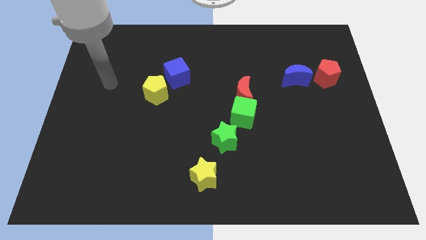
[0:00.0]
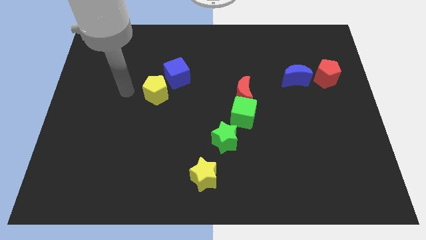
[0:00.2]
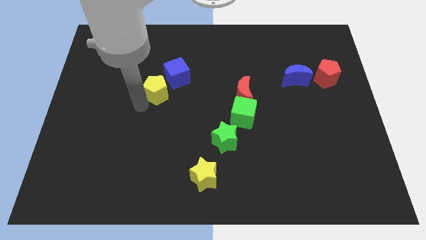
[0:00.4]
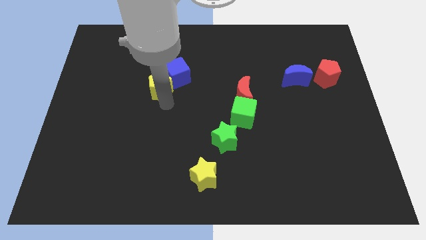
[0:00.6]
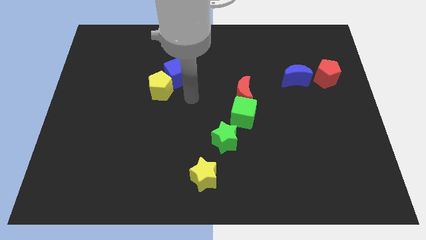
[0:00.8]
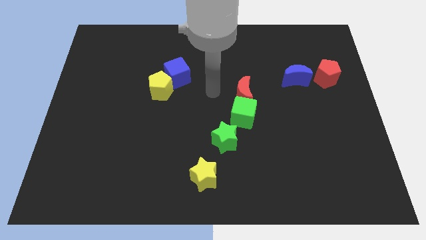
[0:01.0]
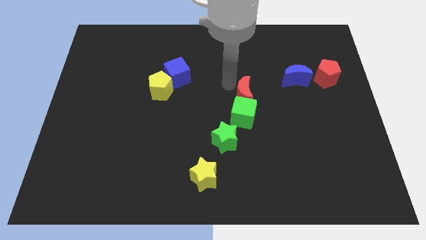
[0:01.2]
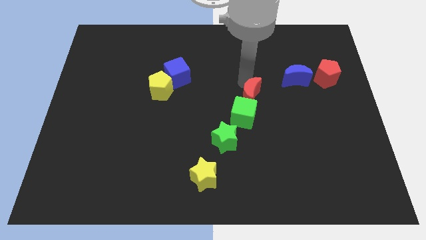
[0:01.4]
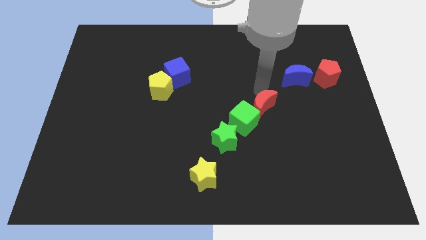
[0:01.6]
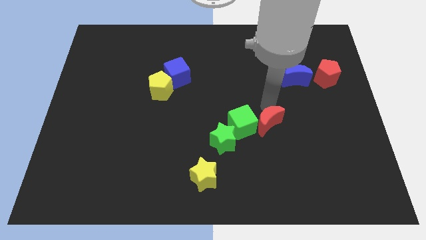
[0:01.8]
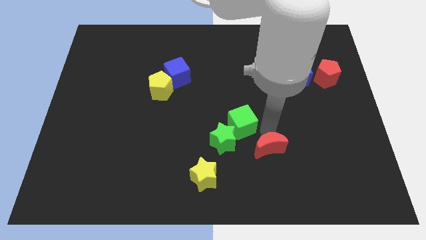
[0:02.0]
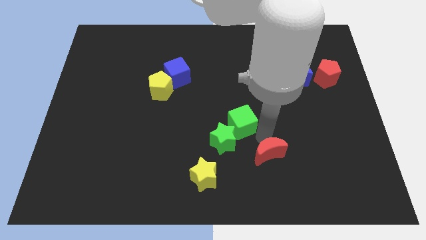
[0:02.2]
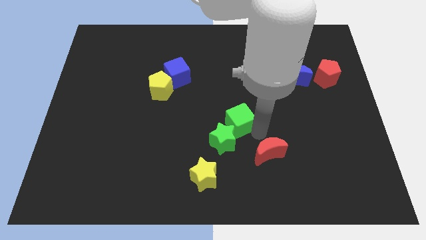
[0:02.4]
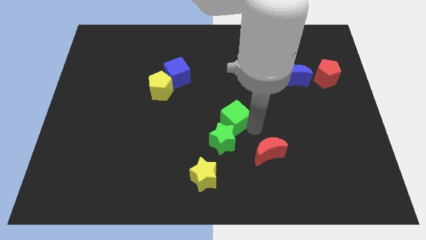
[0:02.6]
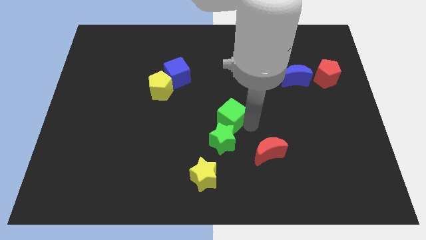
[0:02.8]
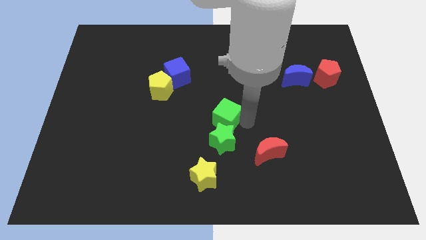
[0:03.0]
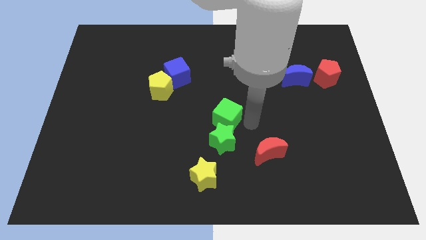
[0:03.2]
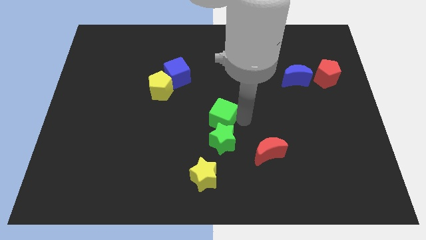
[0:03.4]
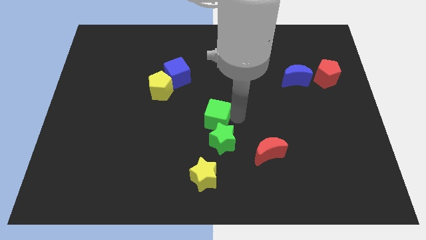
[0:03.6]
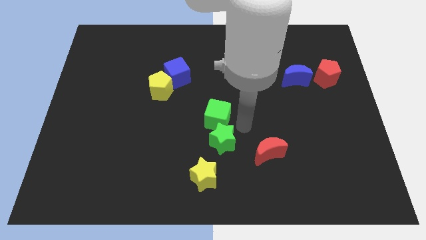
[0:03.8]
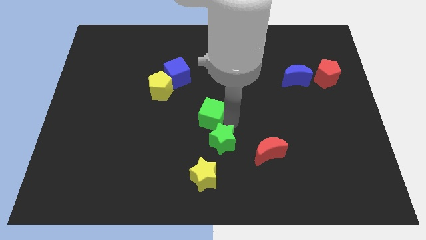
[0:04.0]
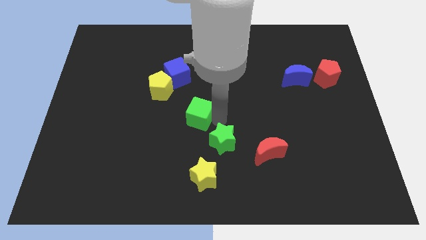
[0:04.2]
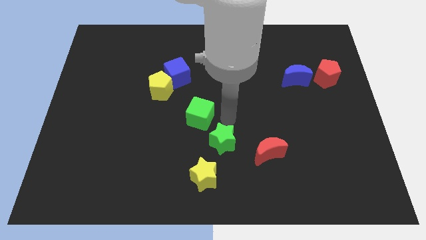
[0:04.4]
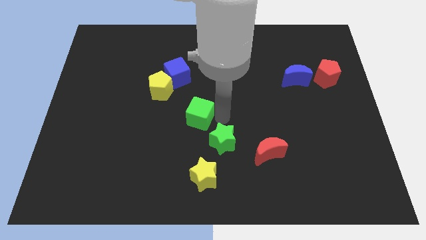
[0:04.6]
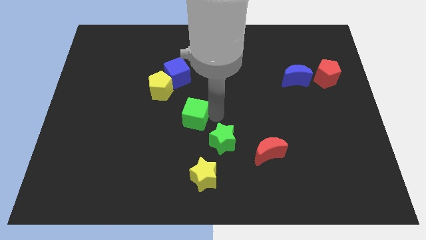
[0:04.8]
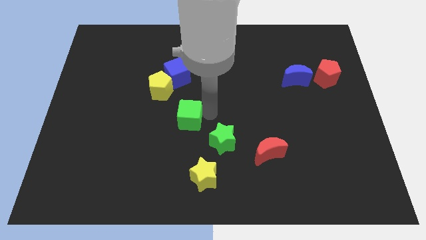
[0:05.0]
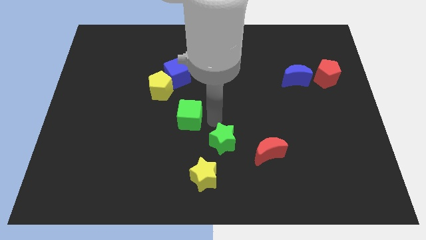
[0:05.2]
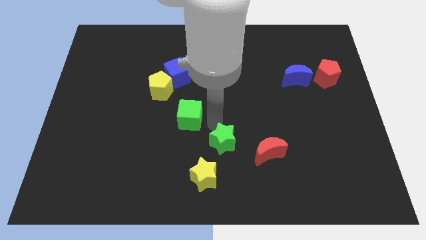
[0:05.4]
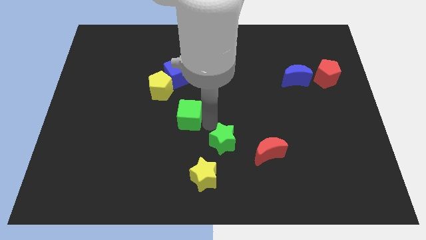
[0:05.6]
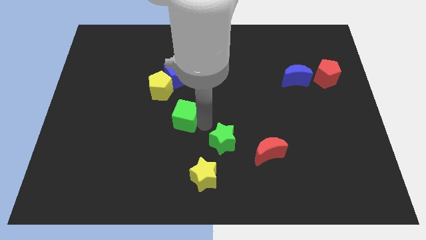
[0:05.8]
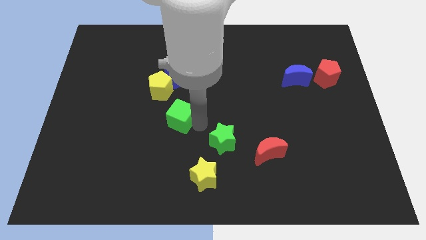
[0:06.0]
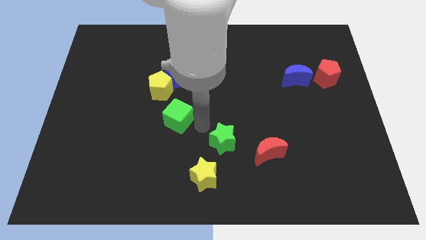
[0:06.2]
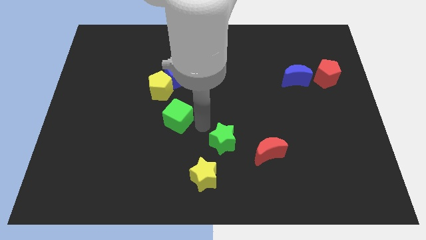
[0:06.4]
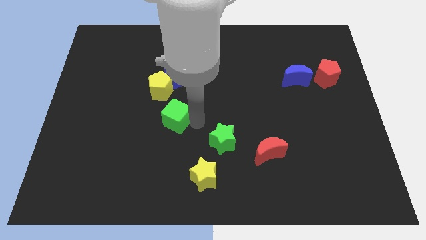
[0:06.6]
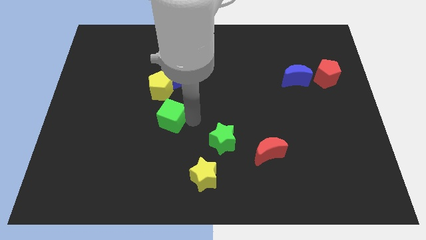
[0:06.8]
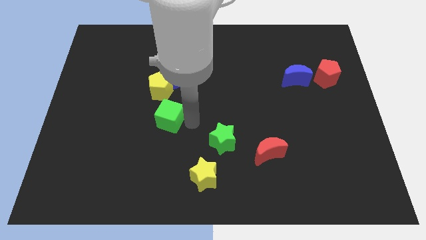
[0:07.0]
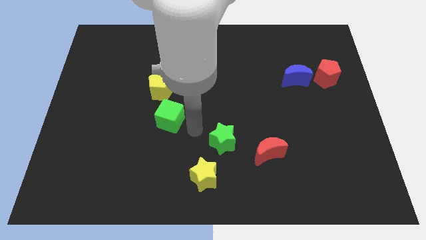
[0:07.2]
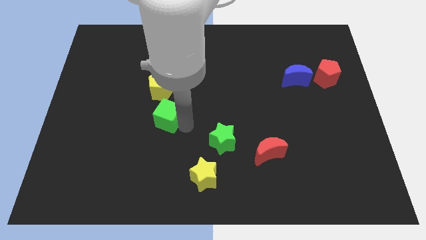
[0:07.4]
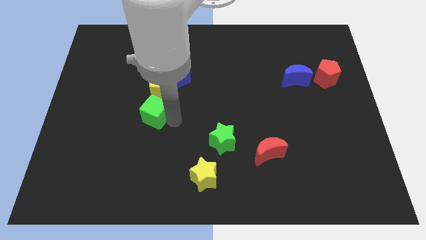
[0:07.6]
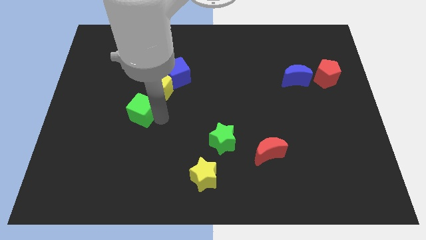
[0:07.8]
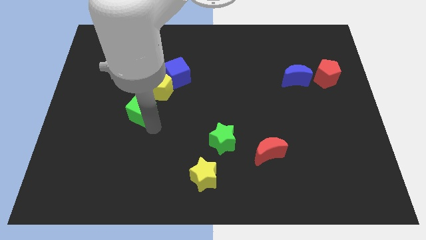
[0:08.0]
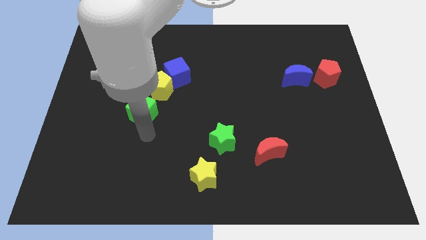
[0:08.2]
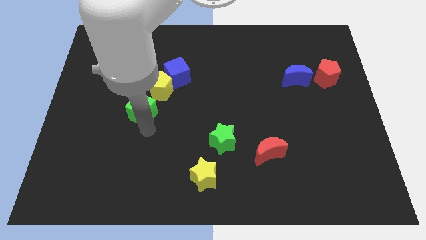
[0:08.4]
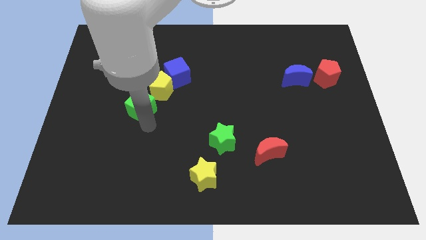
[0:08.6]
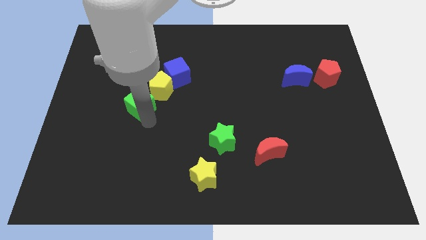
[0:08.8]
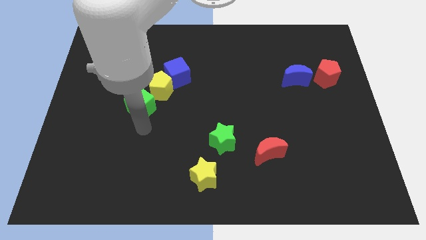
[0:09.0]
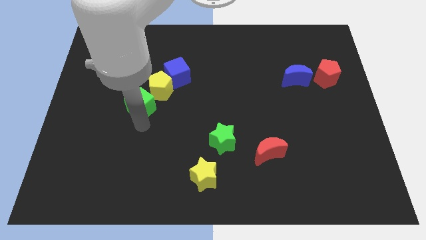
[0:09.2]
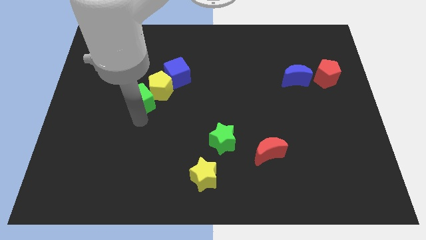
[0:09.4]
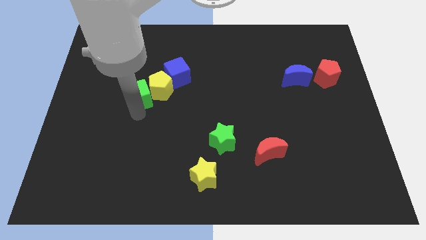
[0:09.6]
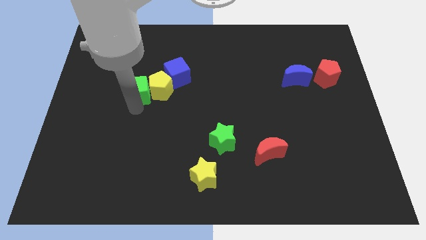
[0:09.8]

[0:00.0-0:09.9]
move the green cube to the top left of the yellow pentagon

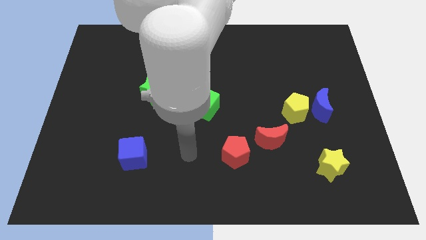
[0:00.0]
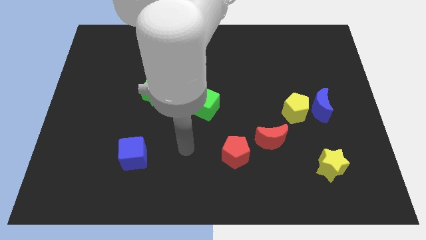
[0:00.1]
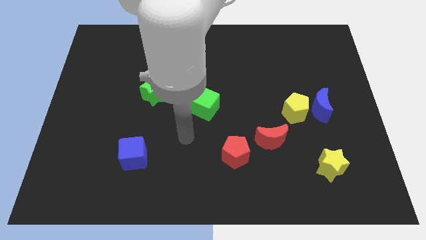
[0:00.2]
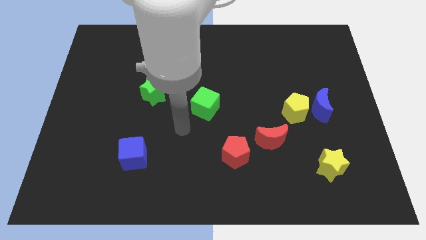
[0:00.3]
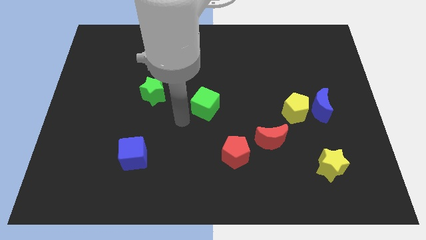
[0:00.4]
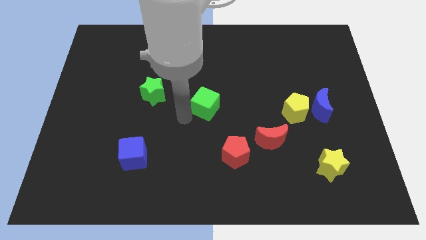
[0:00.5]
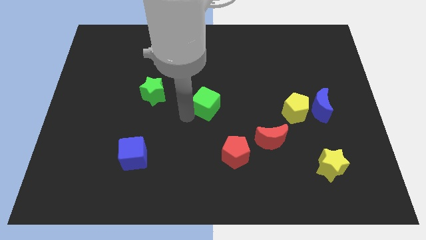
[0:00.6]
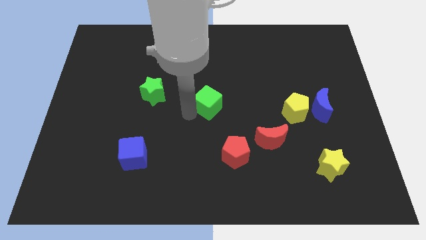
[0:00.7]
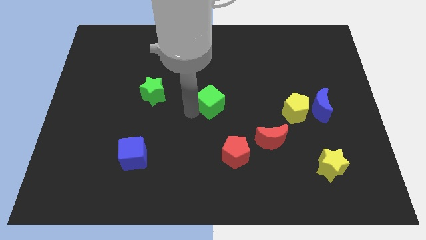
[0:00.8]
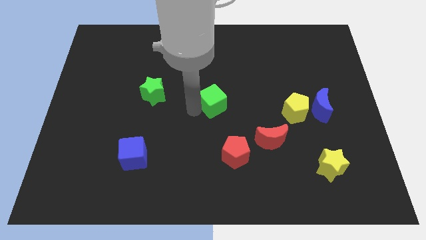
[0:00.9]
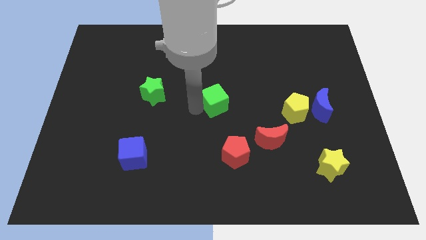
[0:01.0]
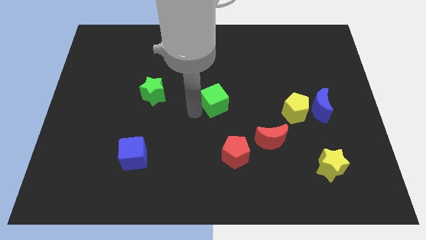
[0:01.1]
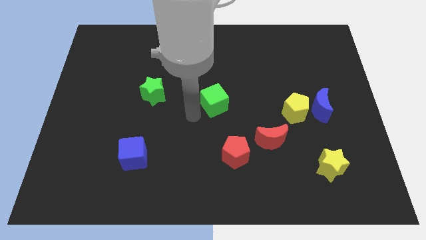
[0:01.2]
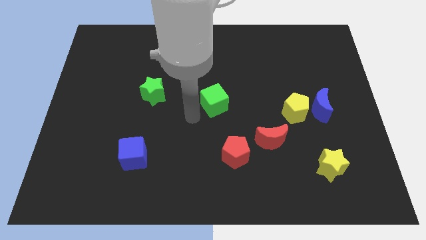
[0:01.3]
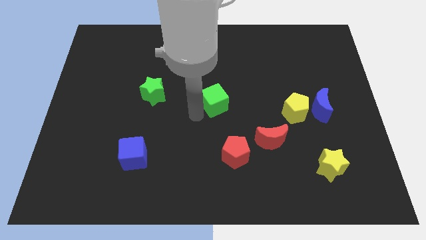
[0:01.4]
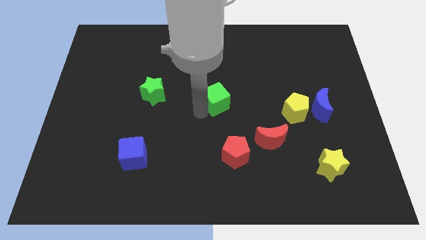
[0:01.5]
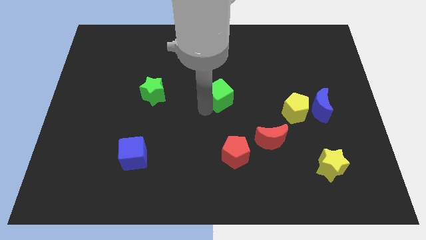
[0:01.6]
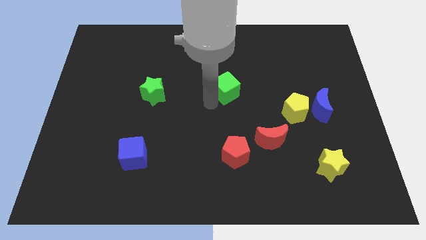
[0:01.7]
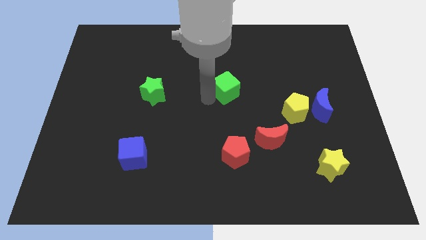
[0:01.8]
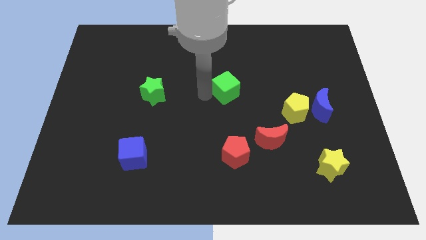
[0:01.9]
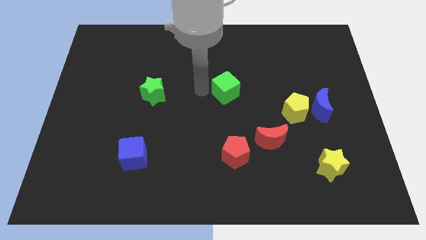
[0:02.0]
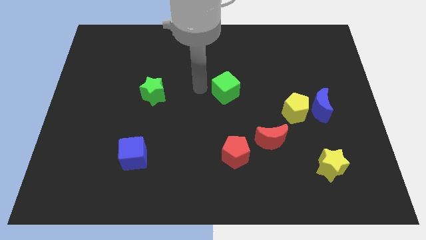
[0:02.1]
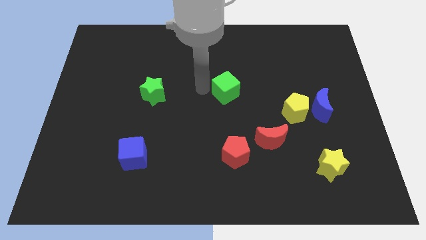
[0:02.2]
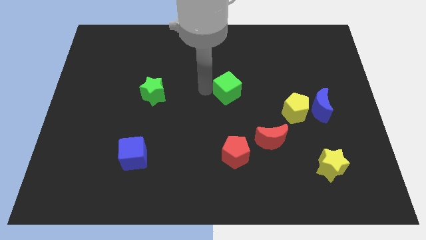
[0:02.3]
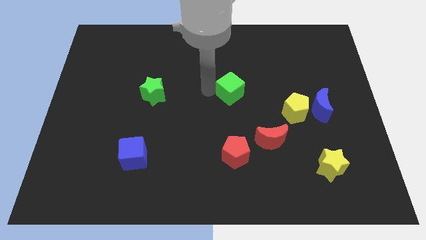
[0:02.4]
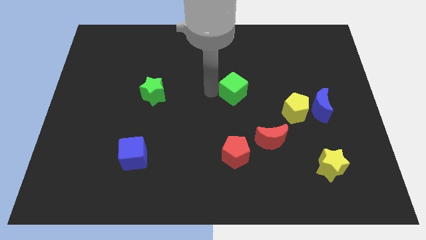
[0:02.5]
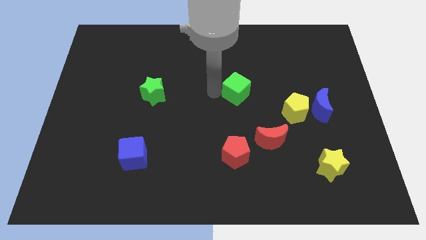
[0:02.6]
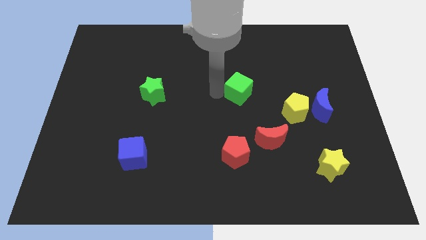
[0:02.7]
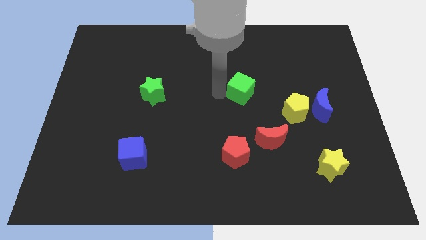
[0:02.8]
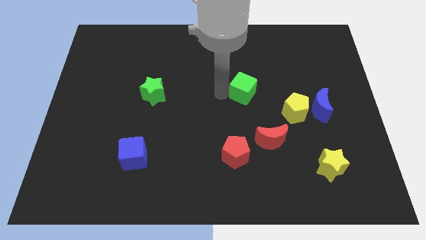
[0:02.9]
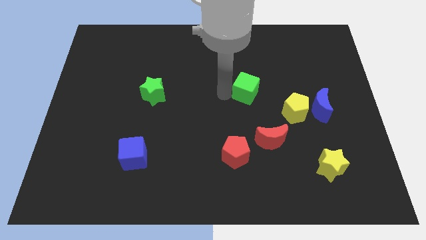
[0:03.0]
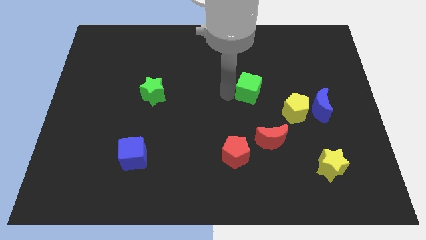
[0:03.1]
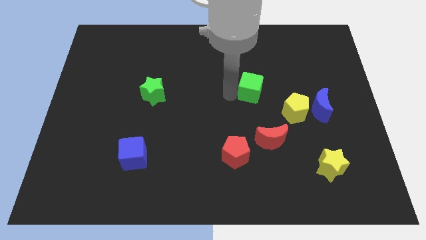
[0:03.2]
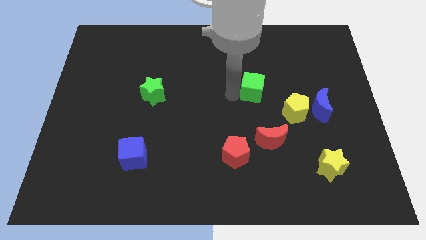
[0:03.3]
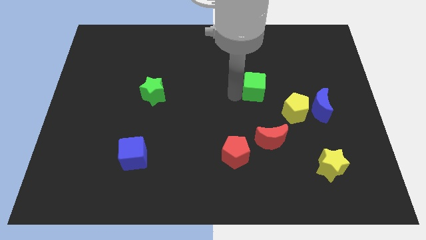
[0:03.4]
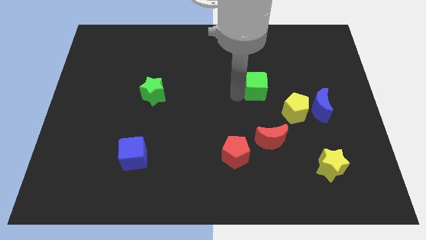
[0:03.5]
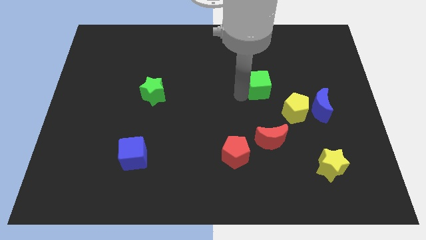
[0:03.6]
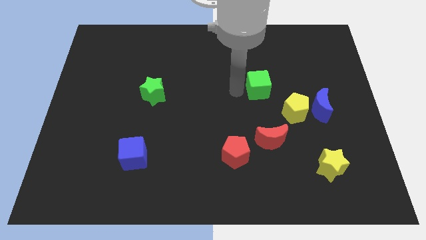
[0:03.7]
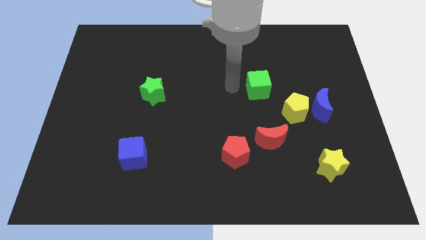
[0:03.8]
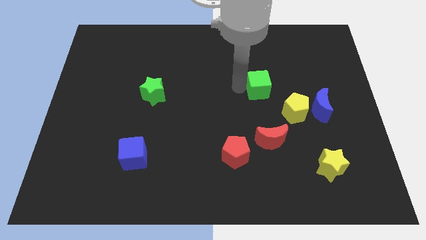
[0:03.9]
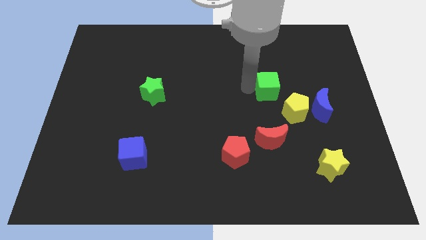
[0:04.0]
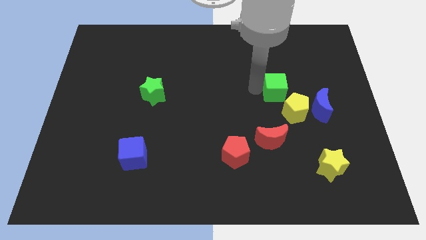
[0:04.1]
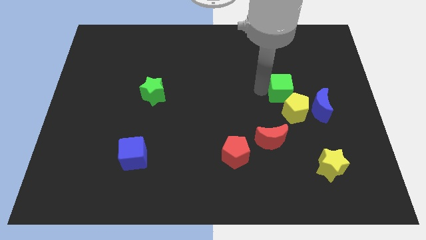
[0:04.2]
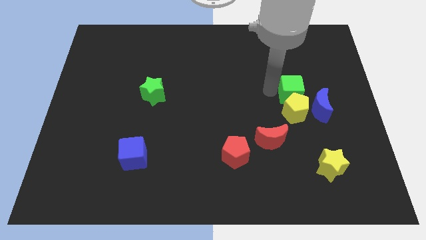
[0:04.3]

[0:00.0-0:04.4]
move the green cube to the top right of the yellow pentagon
